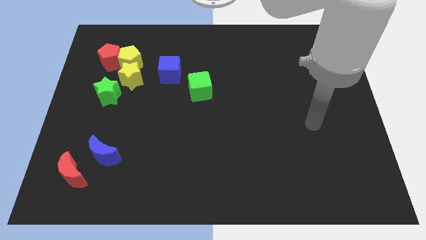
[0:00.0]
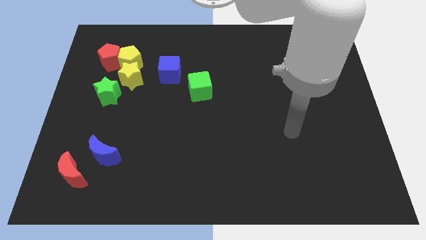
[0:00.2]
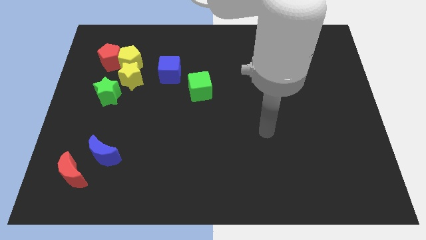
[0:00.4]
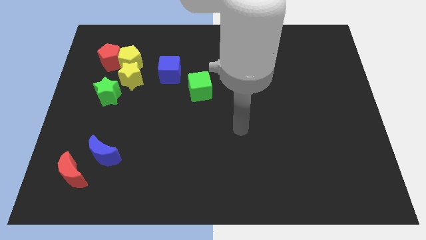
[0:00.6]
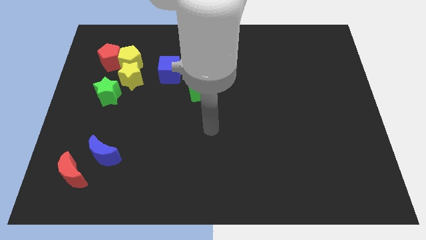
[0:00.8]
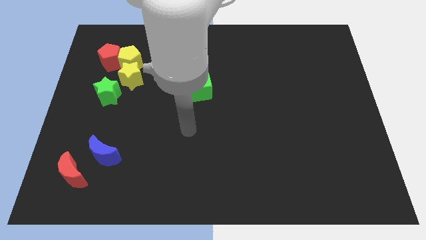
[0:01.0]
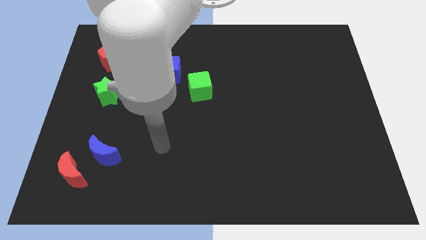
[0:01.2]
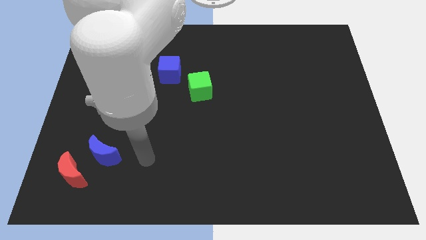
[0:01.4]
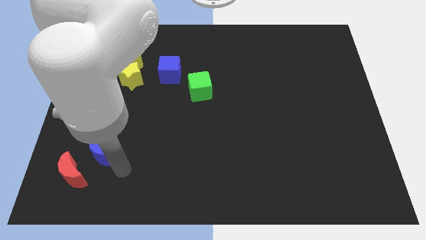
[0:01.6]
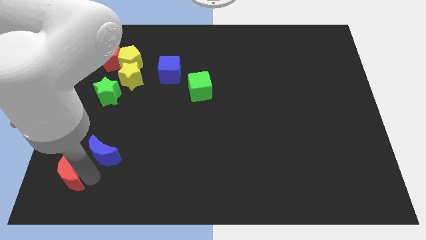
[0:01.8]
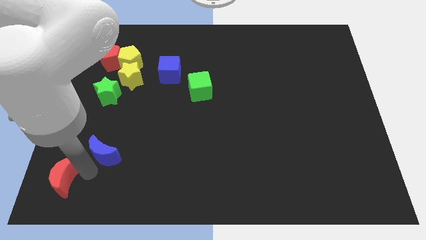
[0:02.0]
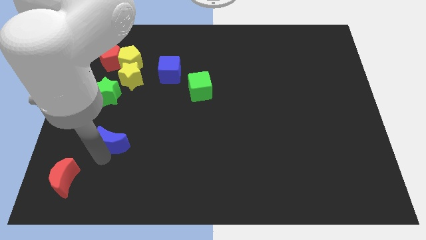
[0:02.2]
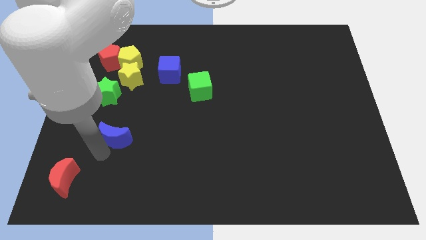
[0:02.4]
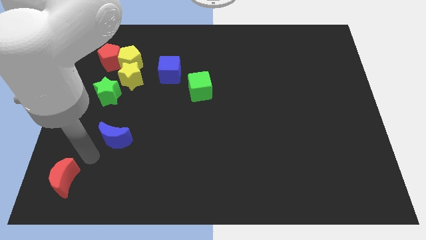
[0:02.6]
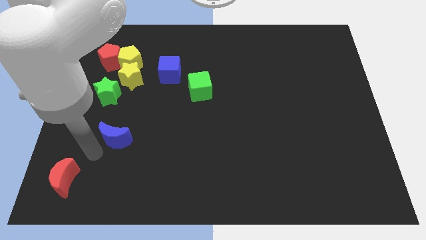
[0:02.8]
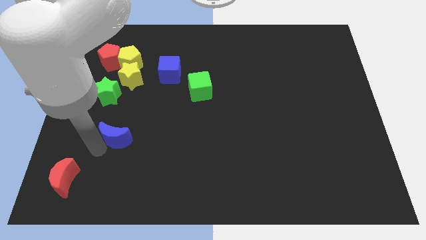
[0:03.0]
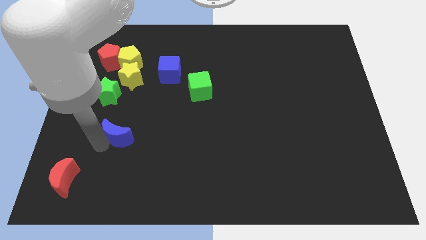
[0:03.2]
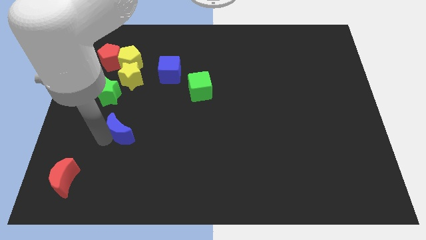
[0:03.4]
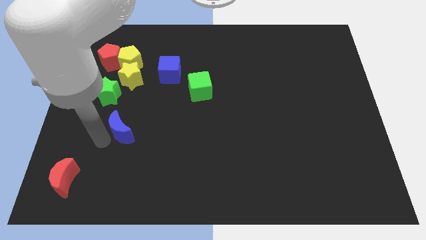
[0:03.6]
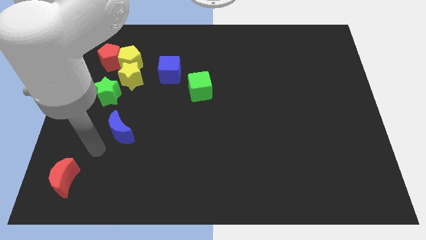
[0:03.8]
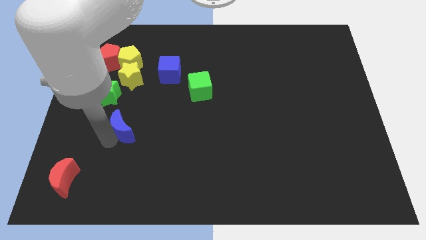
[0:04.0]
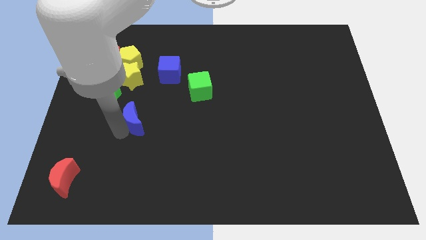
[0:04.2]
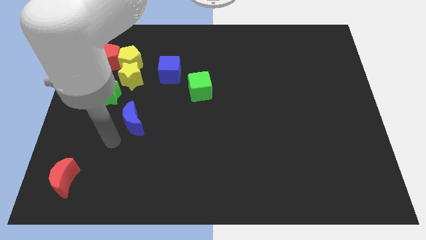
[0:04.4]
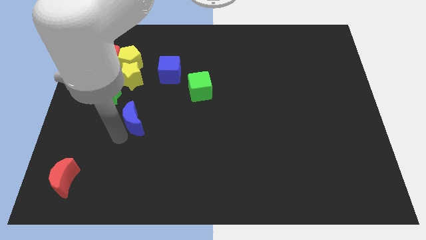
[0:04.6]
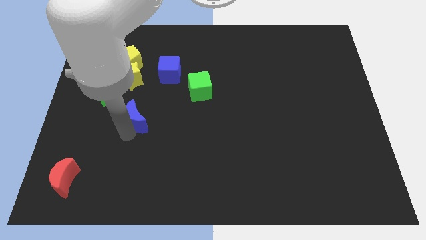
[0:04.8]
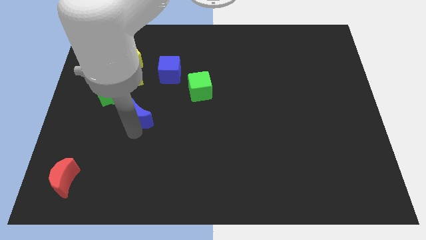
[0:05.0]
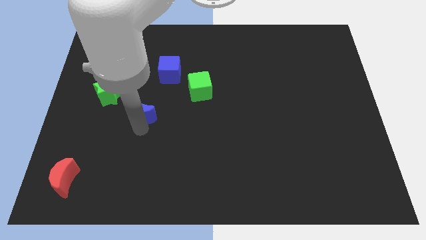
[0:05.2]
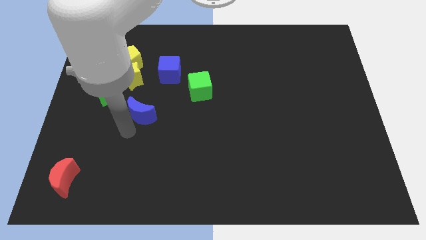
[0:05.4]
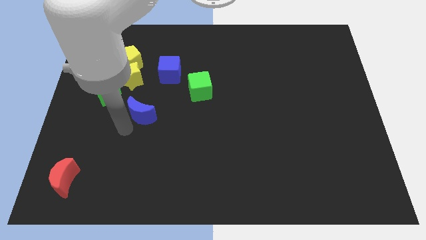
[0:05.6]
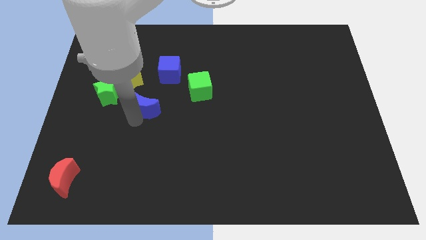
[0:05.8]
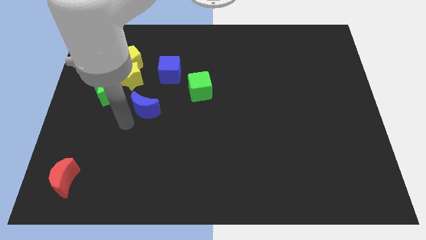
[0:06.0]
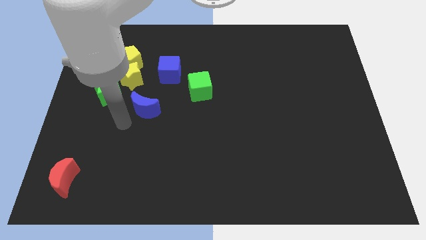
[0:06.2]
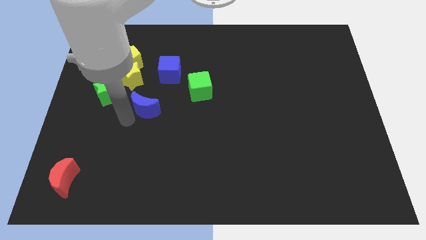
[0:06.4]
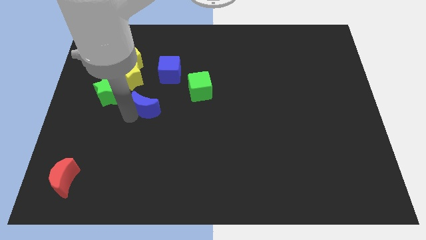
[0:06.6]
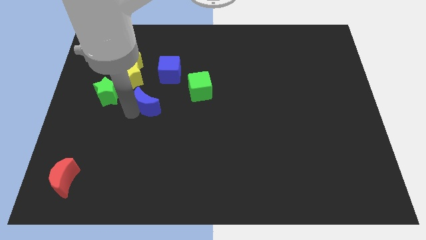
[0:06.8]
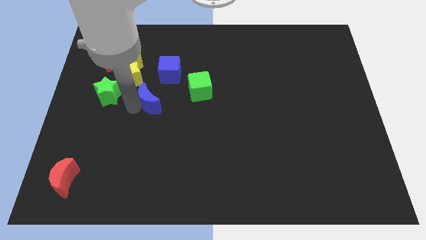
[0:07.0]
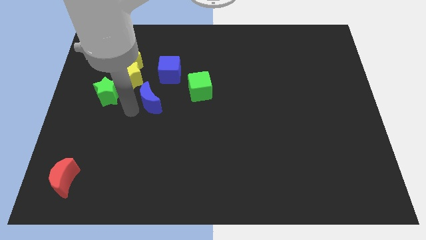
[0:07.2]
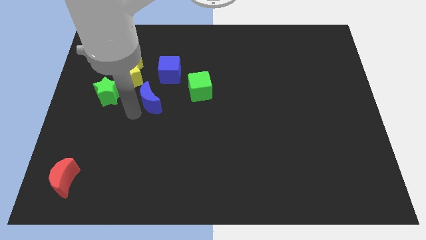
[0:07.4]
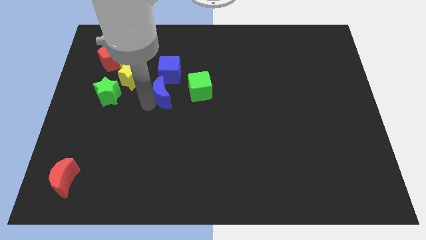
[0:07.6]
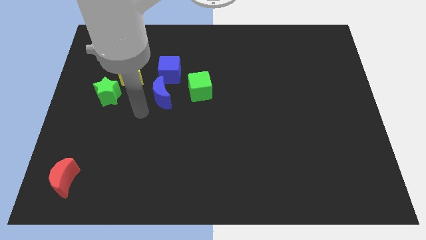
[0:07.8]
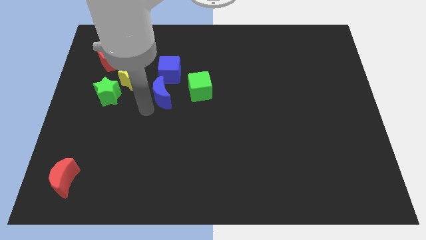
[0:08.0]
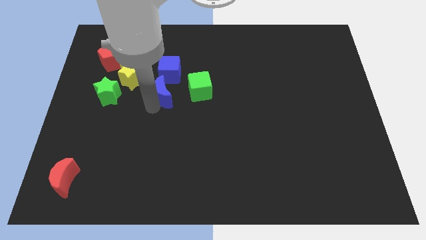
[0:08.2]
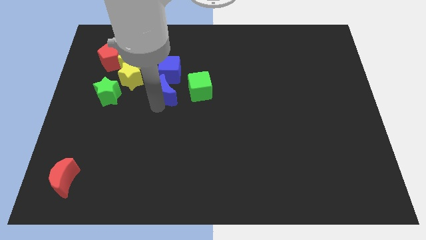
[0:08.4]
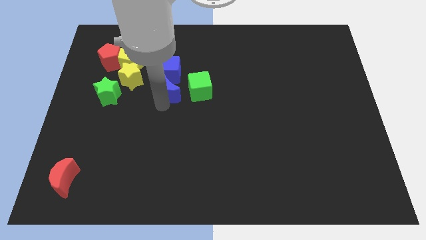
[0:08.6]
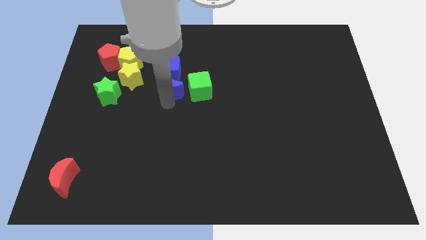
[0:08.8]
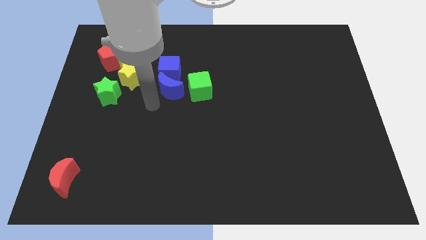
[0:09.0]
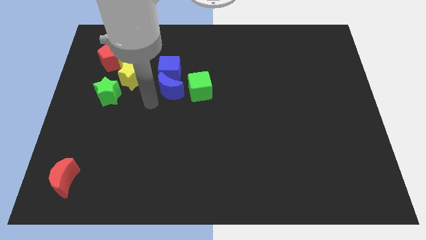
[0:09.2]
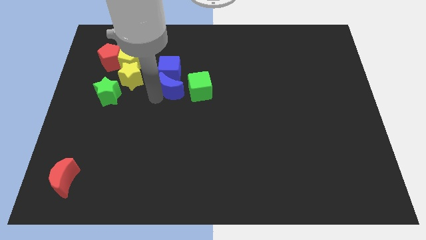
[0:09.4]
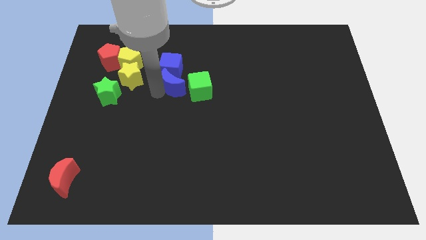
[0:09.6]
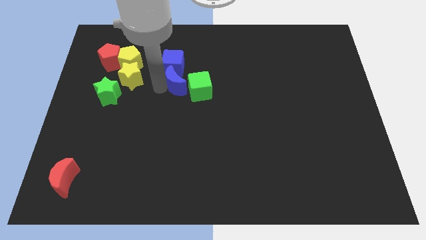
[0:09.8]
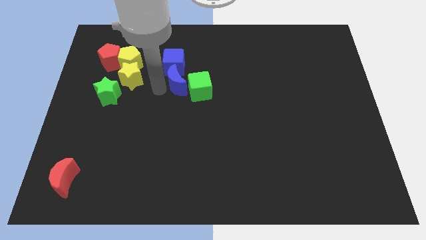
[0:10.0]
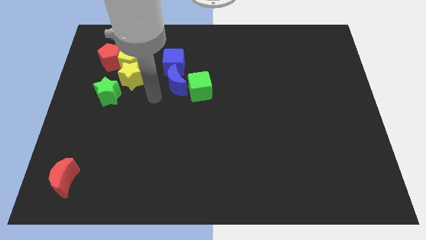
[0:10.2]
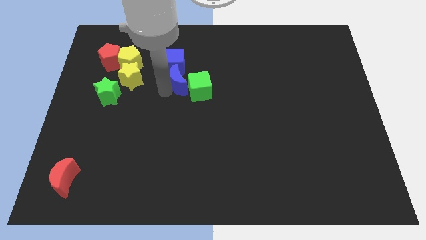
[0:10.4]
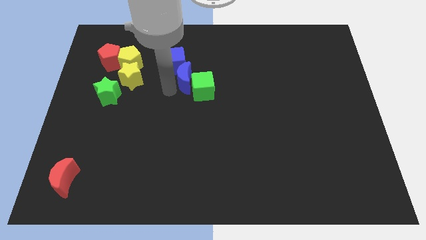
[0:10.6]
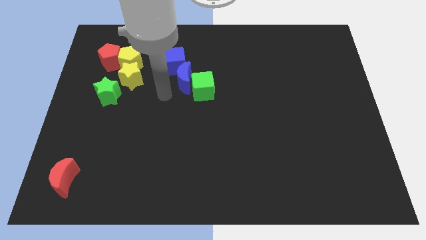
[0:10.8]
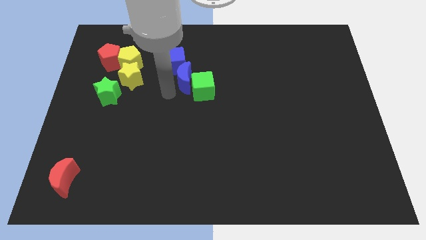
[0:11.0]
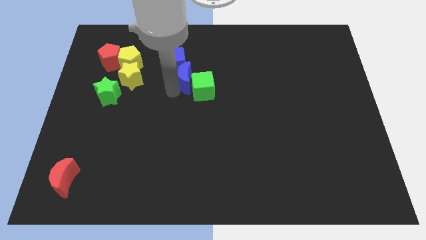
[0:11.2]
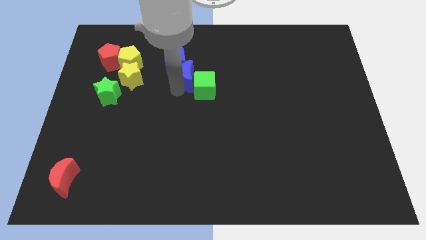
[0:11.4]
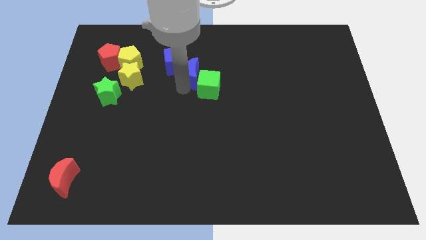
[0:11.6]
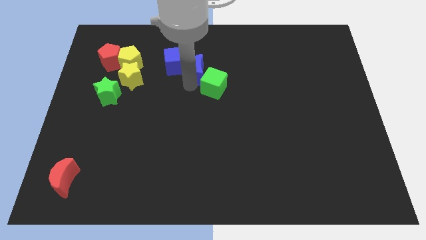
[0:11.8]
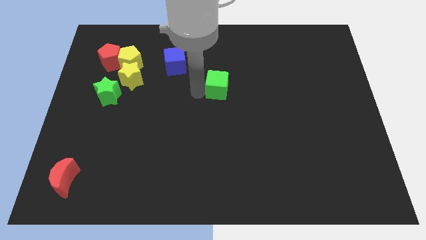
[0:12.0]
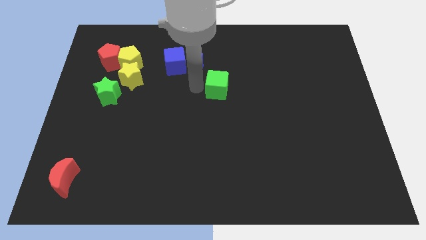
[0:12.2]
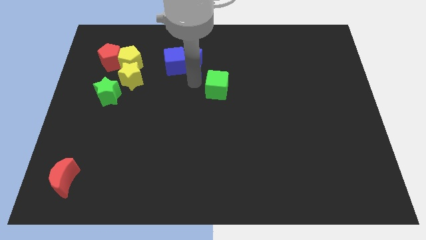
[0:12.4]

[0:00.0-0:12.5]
move the blue moon to the top right of the blue cube
